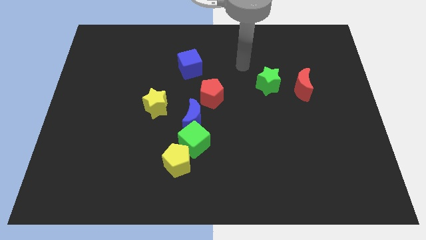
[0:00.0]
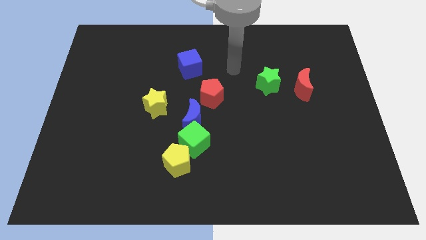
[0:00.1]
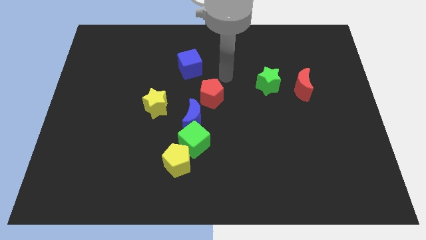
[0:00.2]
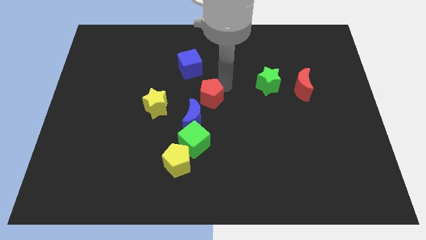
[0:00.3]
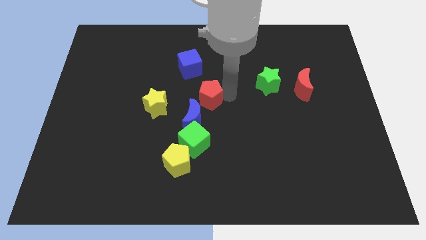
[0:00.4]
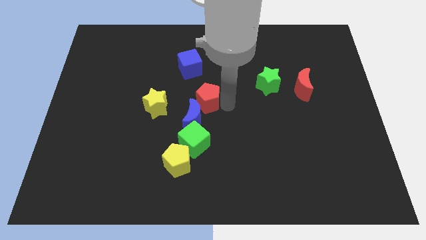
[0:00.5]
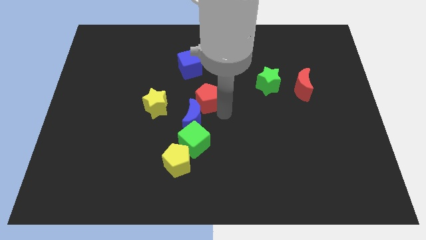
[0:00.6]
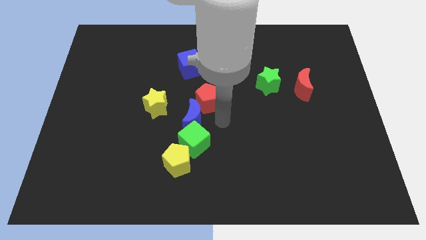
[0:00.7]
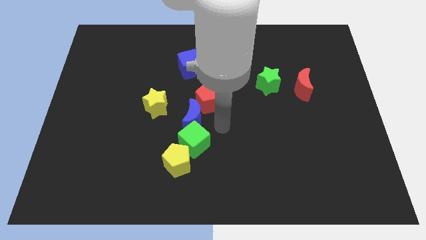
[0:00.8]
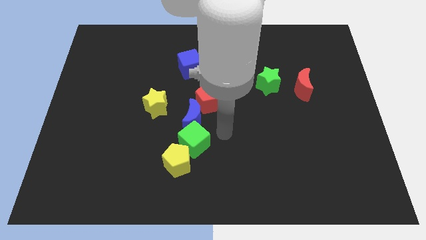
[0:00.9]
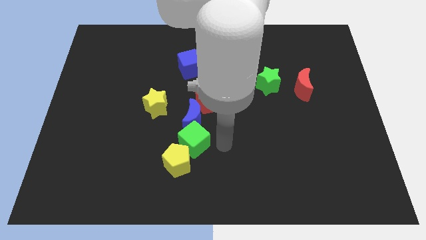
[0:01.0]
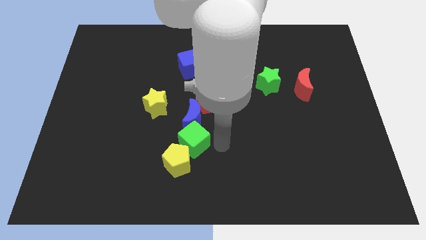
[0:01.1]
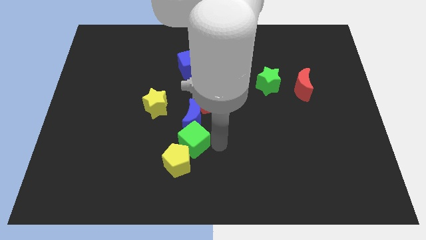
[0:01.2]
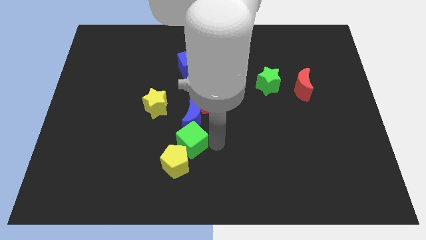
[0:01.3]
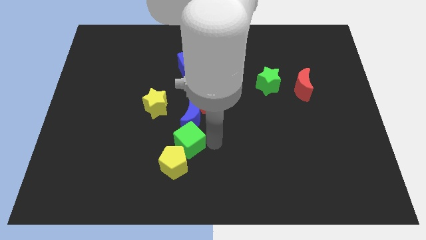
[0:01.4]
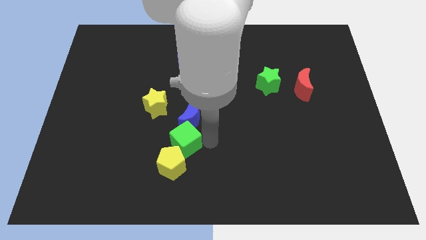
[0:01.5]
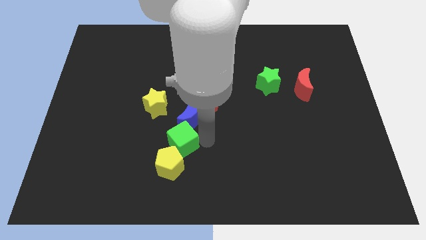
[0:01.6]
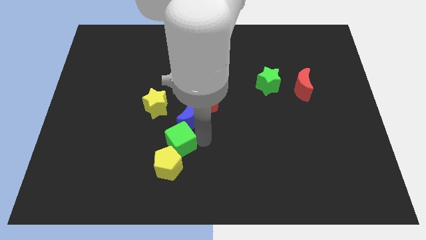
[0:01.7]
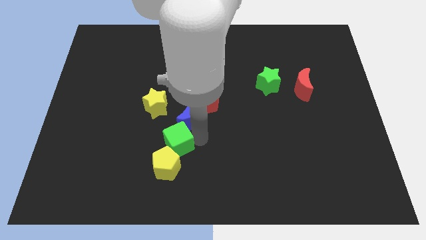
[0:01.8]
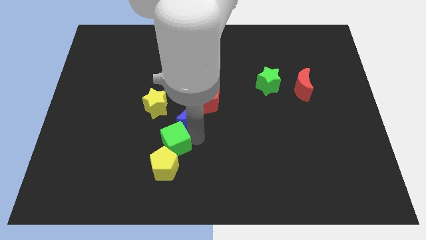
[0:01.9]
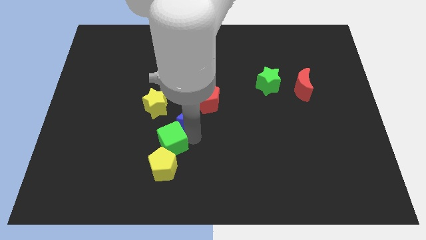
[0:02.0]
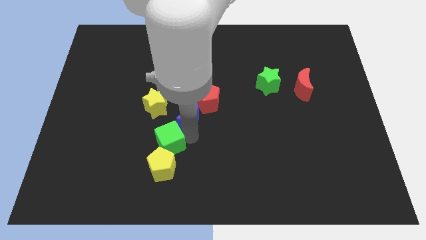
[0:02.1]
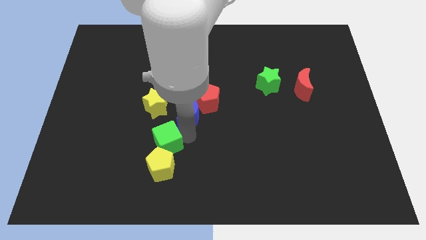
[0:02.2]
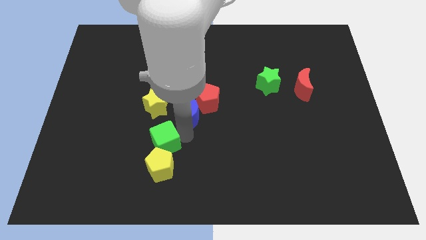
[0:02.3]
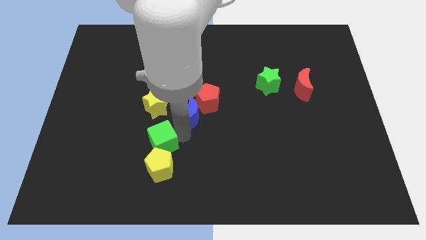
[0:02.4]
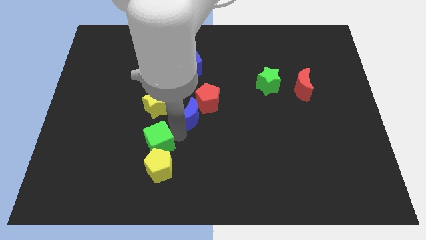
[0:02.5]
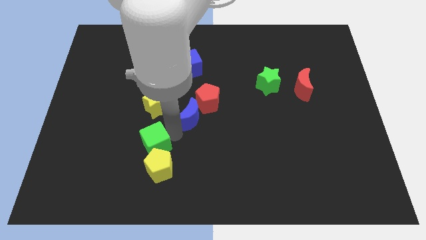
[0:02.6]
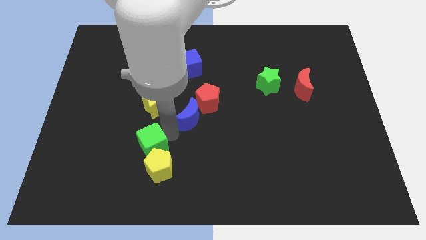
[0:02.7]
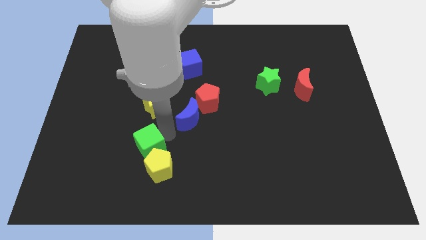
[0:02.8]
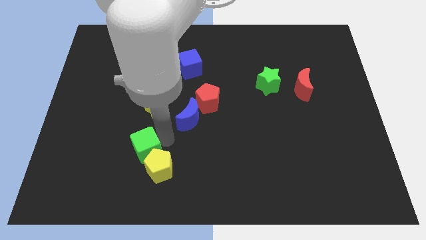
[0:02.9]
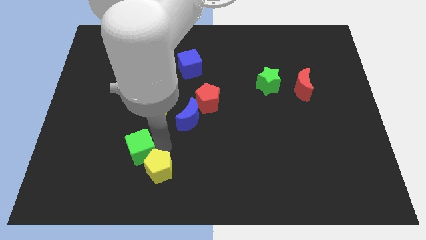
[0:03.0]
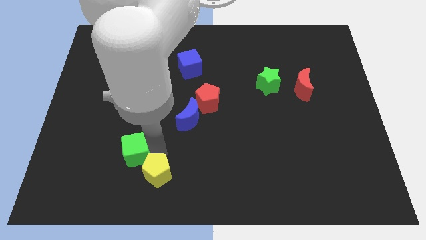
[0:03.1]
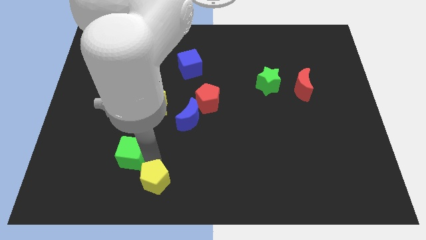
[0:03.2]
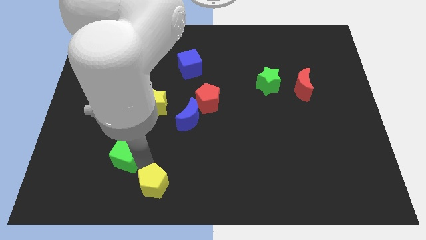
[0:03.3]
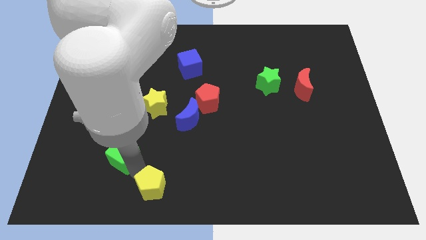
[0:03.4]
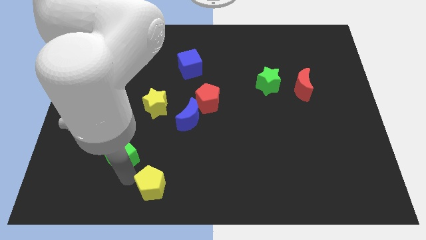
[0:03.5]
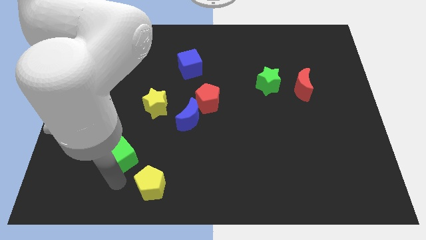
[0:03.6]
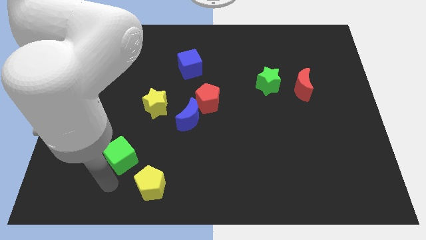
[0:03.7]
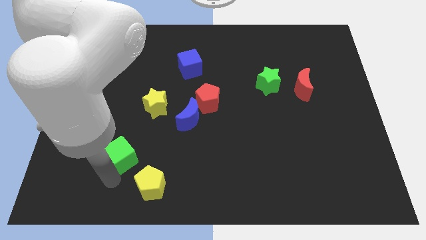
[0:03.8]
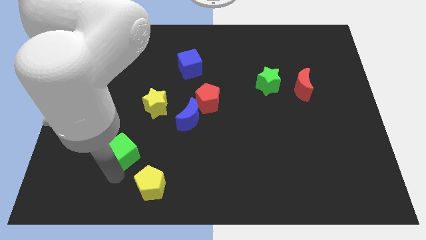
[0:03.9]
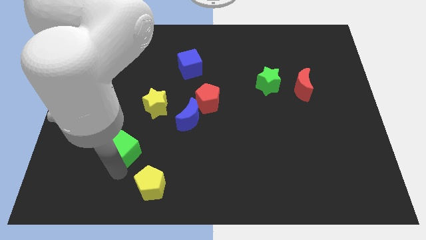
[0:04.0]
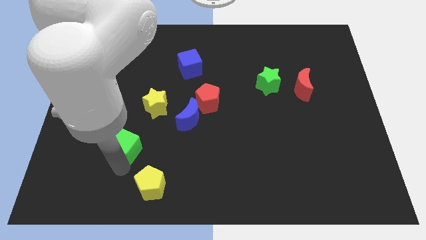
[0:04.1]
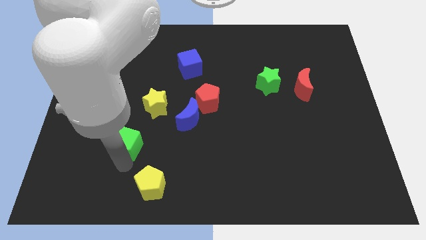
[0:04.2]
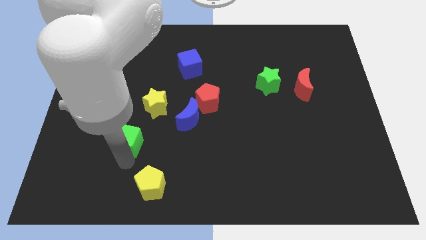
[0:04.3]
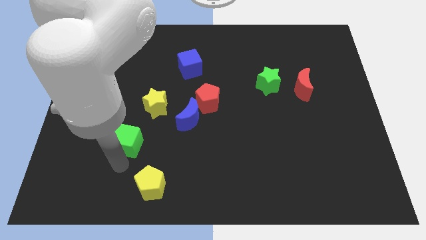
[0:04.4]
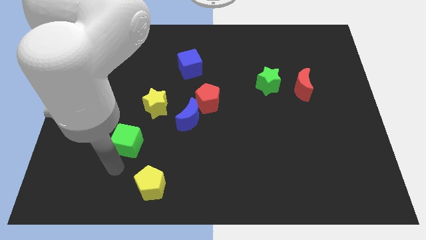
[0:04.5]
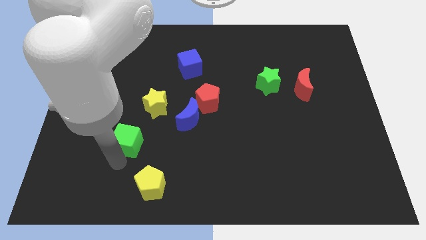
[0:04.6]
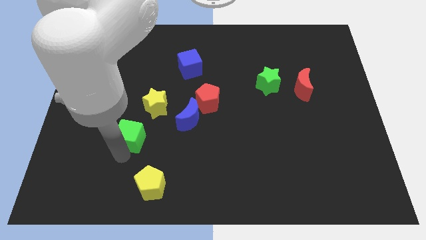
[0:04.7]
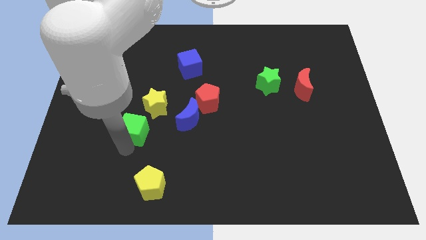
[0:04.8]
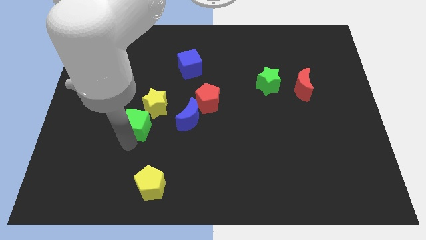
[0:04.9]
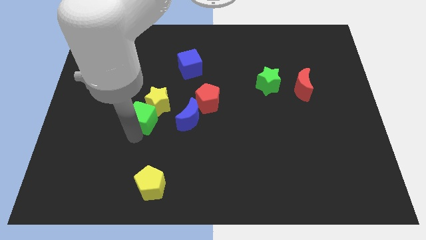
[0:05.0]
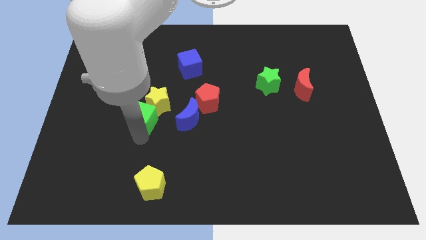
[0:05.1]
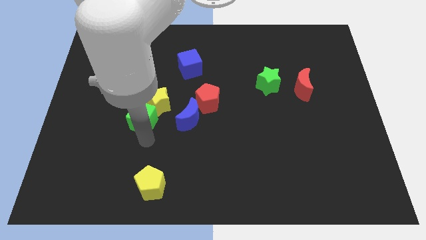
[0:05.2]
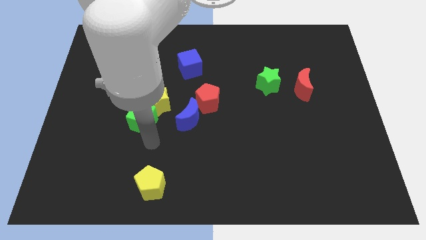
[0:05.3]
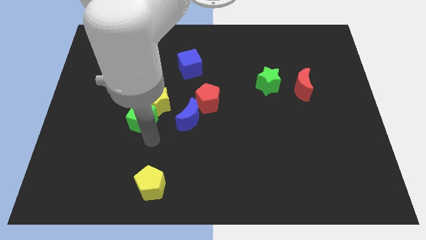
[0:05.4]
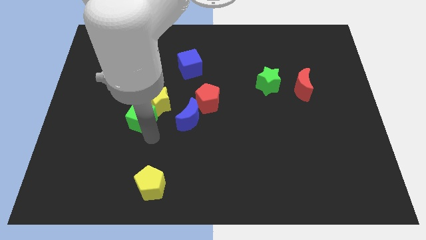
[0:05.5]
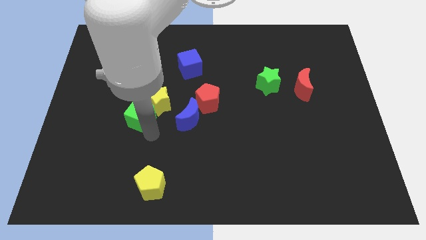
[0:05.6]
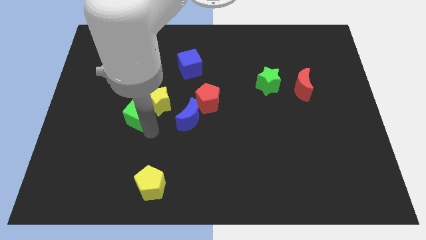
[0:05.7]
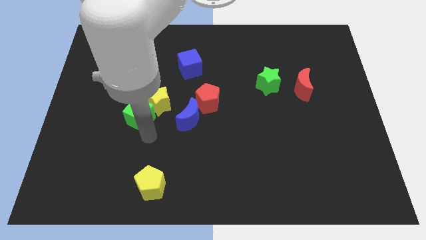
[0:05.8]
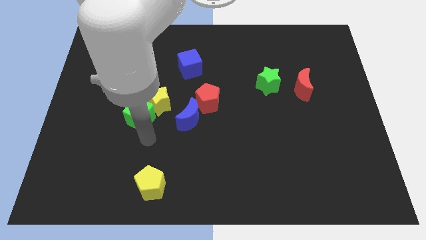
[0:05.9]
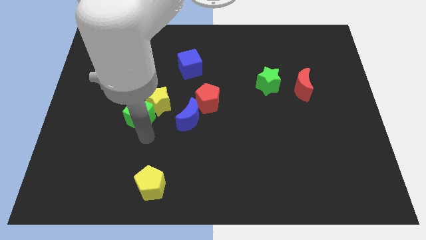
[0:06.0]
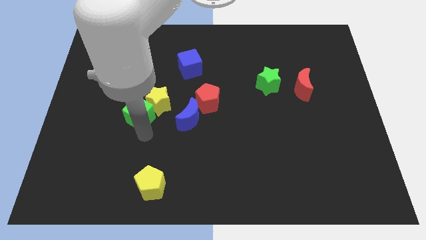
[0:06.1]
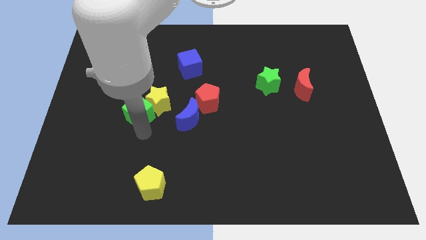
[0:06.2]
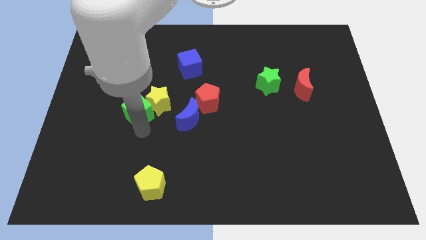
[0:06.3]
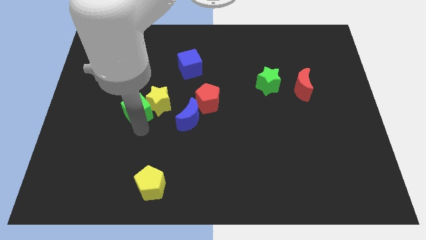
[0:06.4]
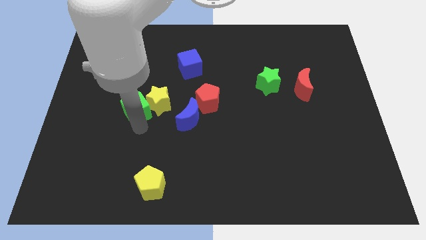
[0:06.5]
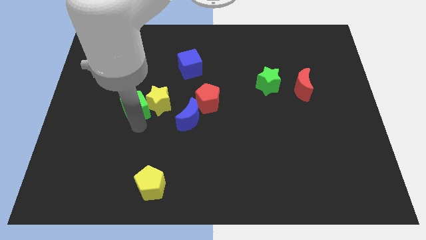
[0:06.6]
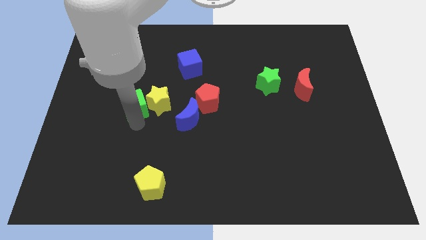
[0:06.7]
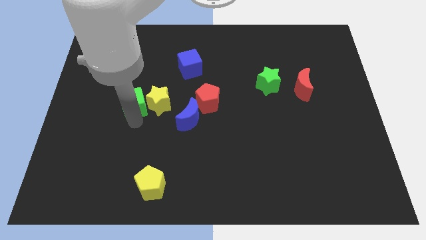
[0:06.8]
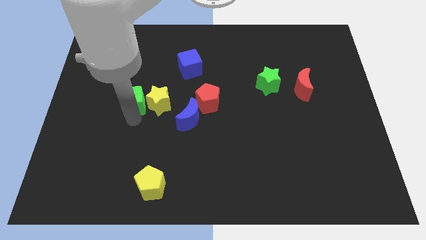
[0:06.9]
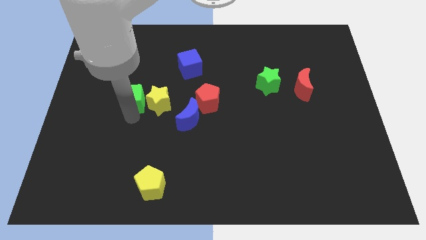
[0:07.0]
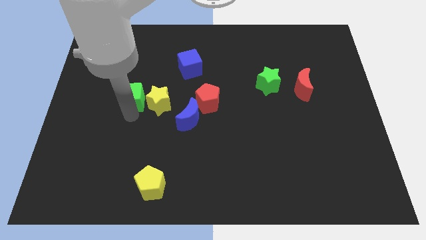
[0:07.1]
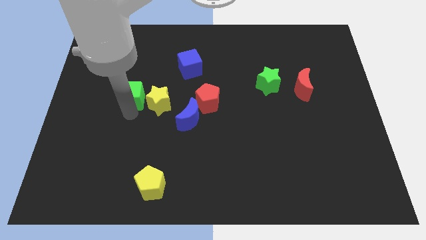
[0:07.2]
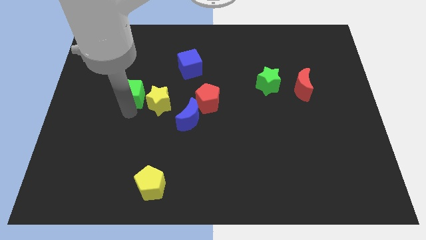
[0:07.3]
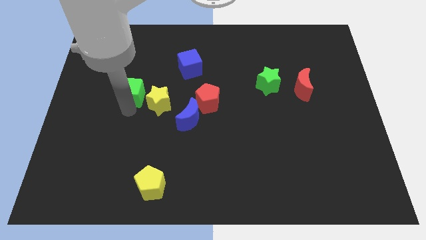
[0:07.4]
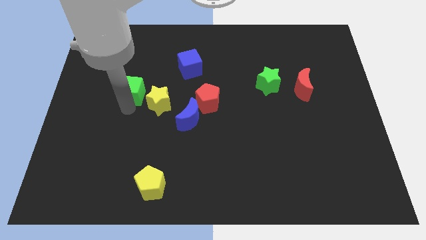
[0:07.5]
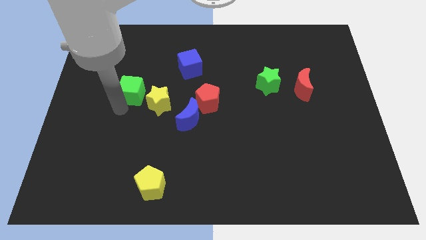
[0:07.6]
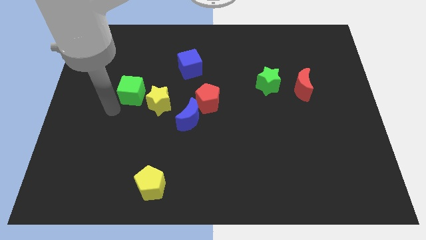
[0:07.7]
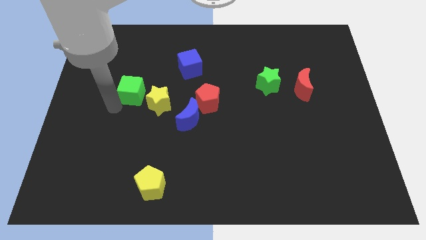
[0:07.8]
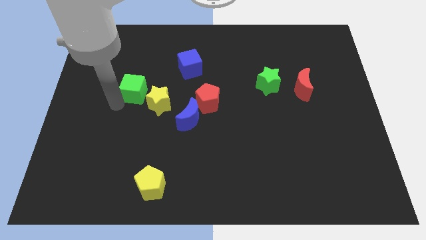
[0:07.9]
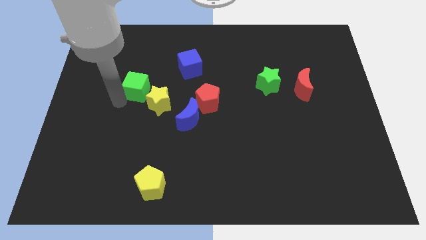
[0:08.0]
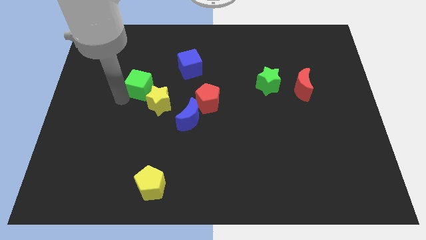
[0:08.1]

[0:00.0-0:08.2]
slide the green cube above the yellow star
